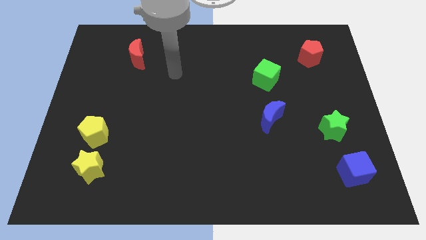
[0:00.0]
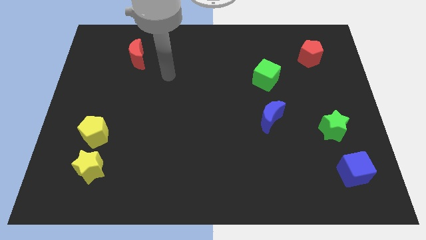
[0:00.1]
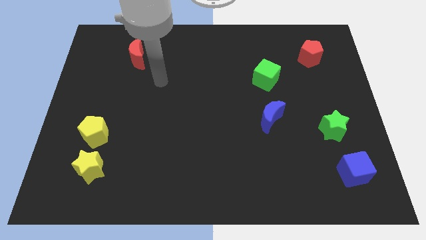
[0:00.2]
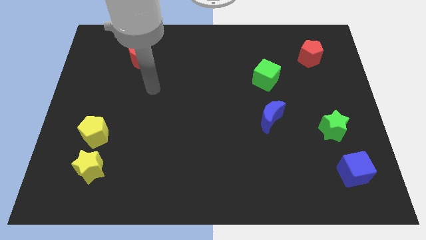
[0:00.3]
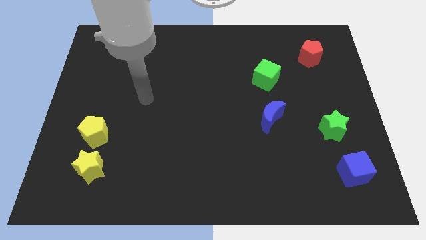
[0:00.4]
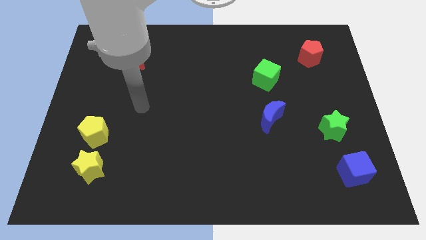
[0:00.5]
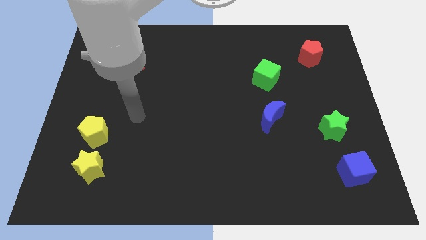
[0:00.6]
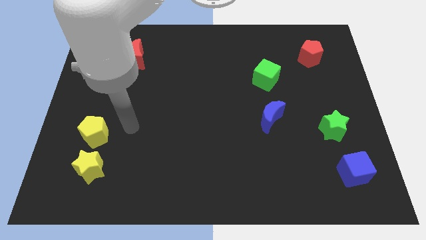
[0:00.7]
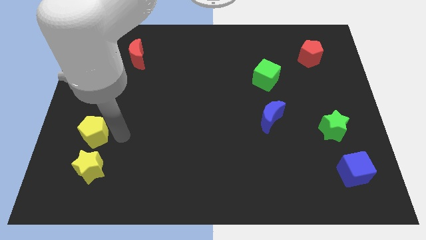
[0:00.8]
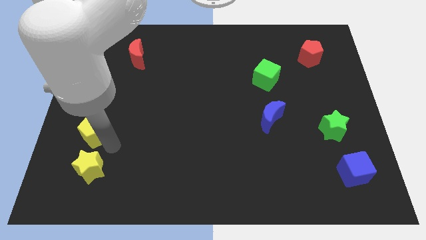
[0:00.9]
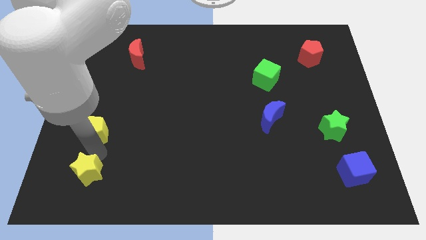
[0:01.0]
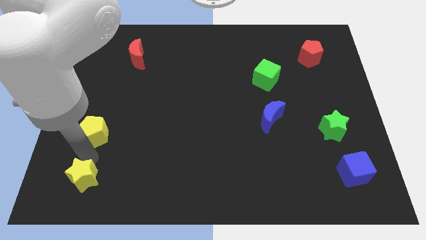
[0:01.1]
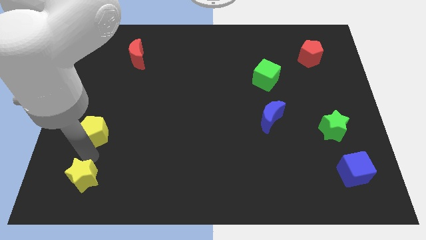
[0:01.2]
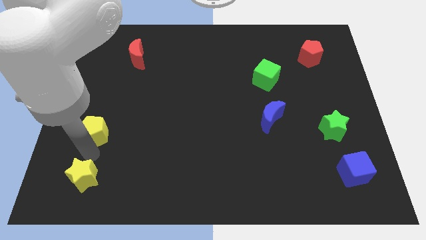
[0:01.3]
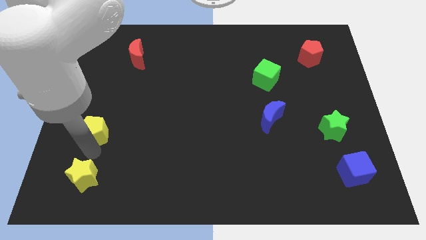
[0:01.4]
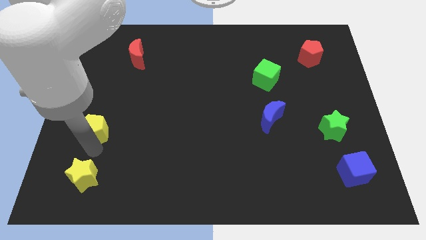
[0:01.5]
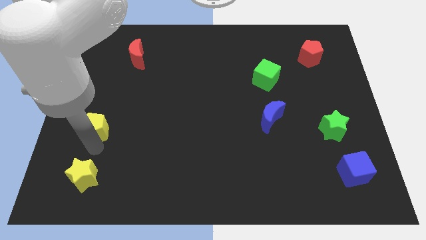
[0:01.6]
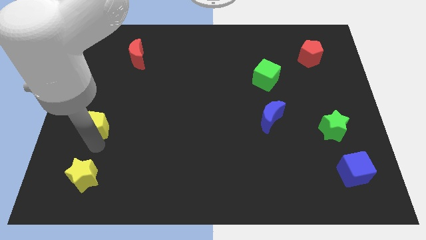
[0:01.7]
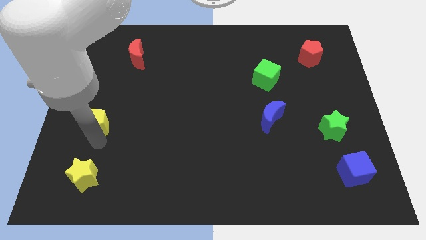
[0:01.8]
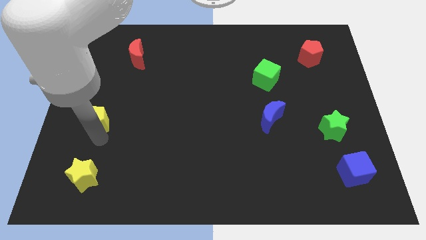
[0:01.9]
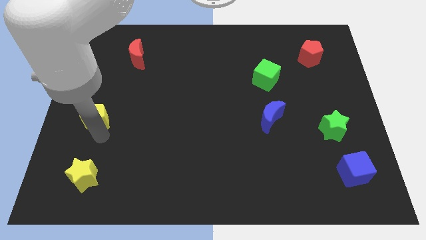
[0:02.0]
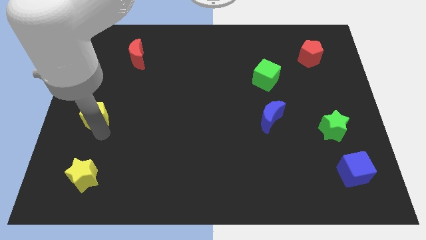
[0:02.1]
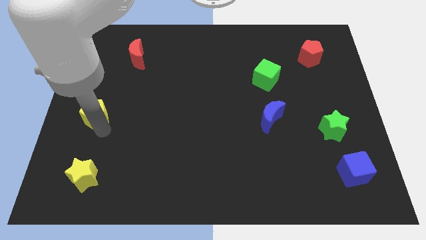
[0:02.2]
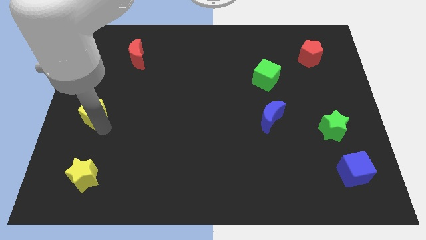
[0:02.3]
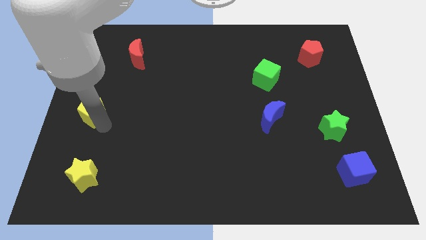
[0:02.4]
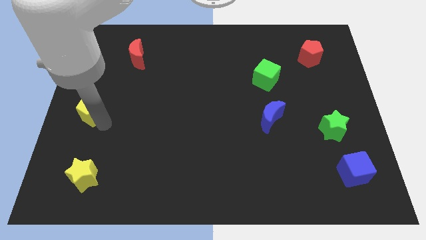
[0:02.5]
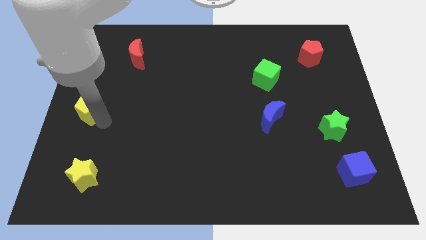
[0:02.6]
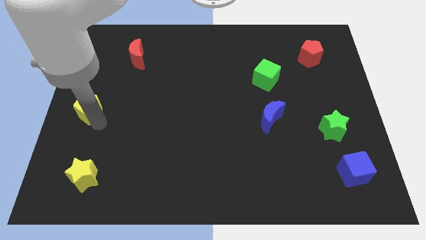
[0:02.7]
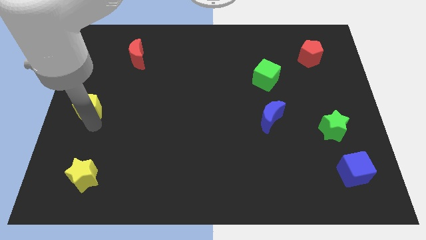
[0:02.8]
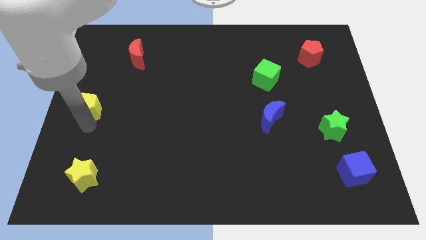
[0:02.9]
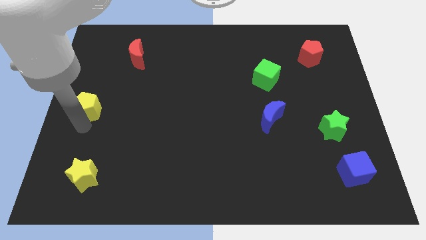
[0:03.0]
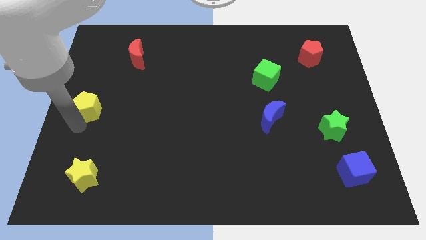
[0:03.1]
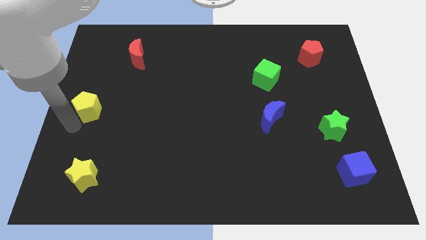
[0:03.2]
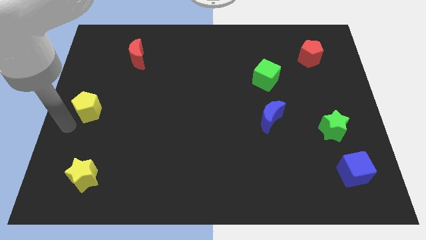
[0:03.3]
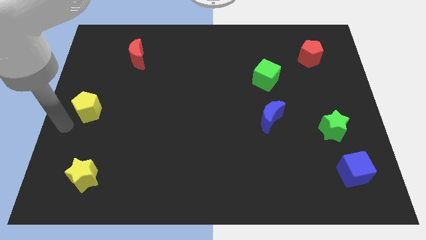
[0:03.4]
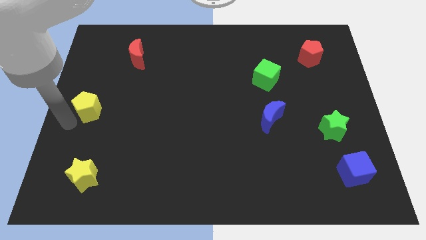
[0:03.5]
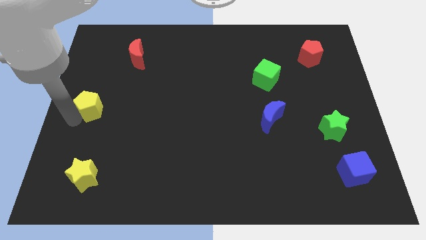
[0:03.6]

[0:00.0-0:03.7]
push the yellow pentagon somewhat upwards

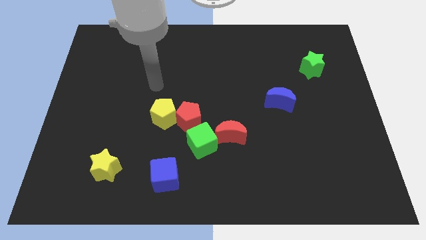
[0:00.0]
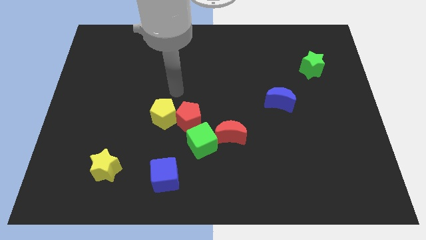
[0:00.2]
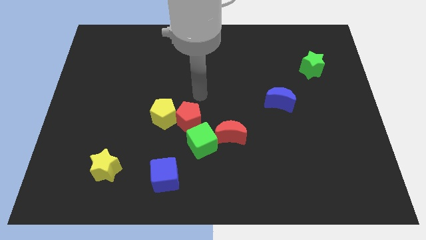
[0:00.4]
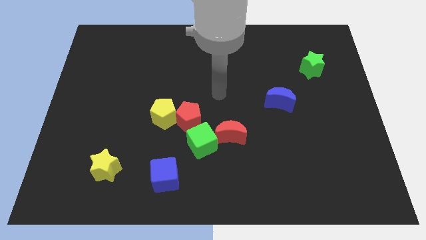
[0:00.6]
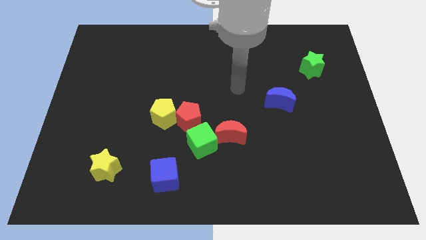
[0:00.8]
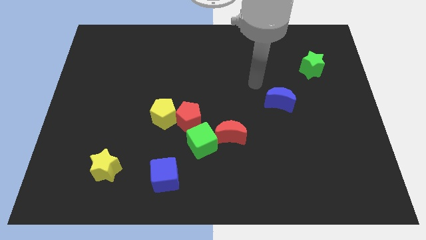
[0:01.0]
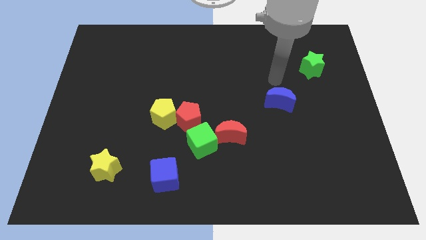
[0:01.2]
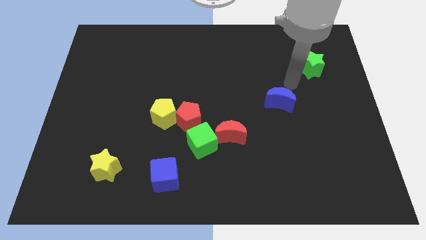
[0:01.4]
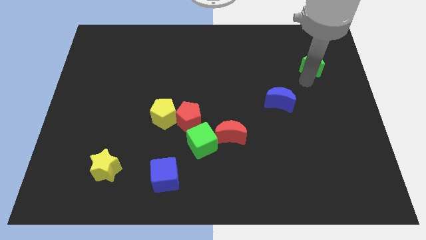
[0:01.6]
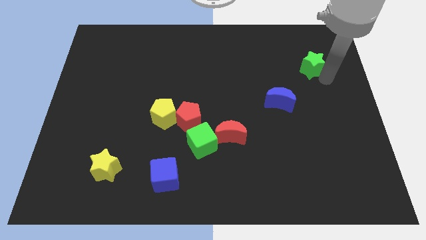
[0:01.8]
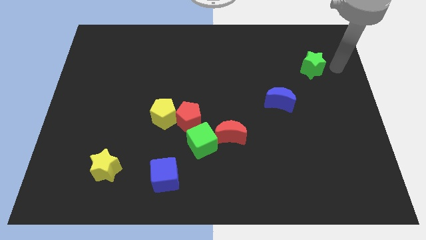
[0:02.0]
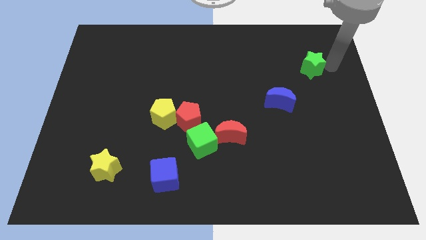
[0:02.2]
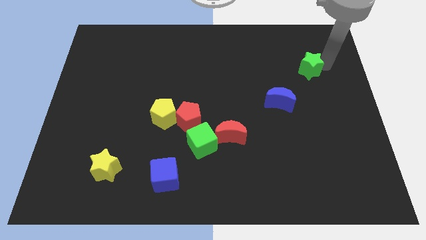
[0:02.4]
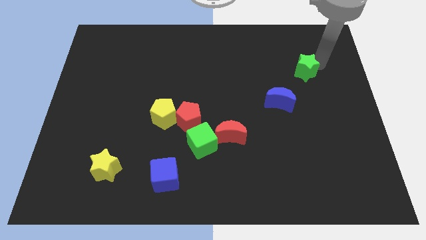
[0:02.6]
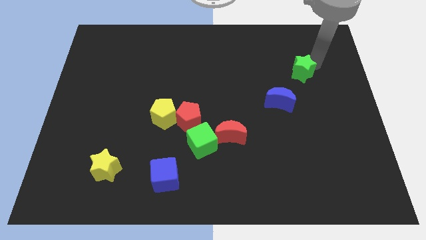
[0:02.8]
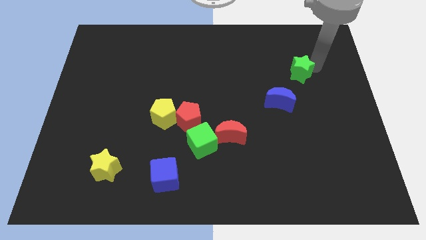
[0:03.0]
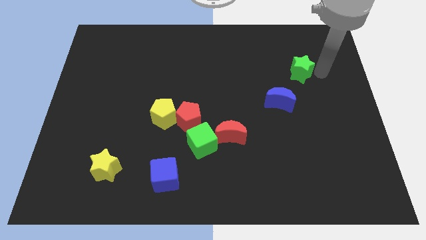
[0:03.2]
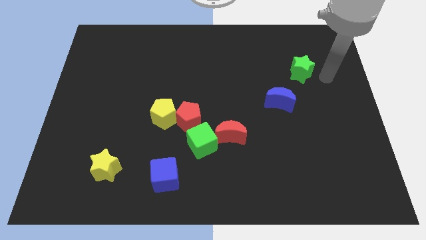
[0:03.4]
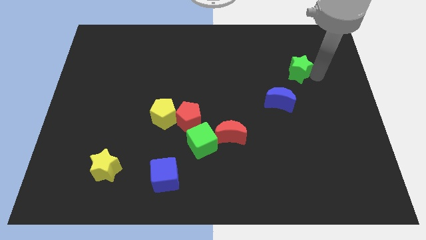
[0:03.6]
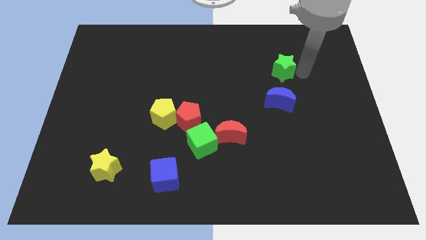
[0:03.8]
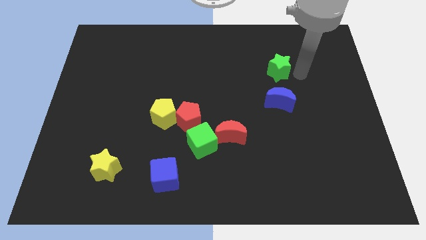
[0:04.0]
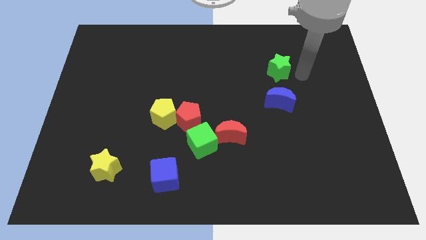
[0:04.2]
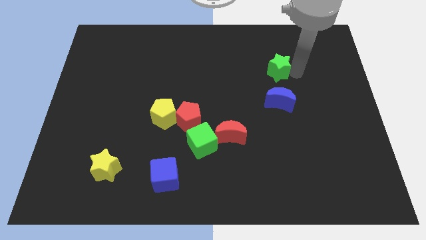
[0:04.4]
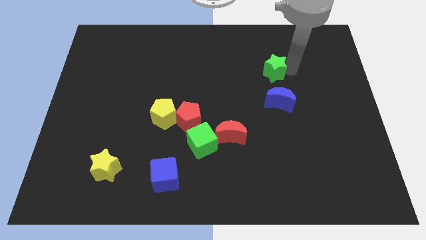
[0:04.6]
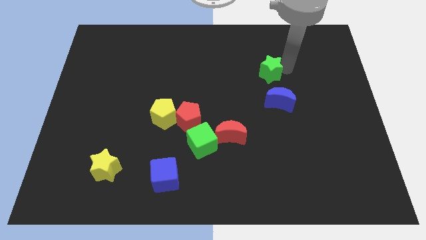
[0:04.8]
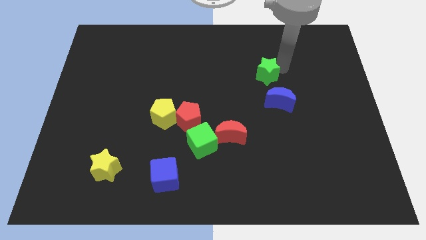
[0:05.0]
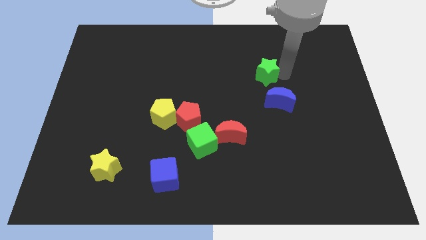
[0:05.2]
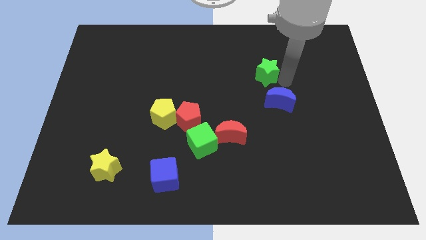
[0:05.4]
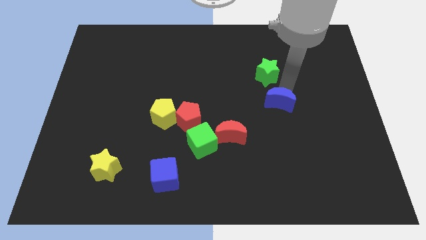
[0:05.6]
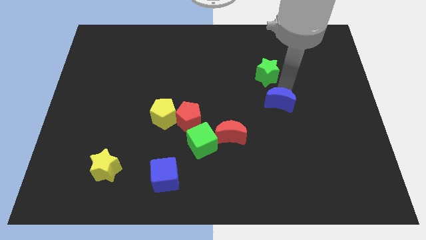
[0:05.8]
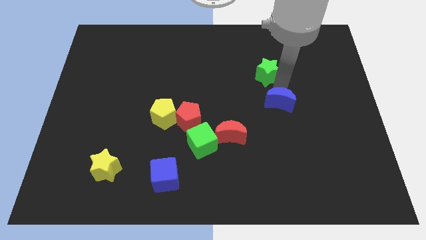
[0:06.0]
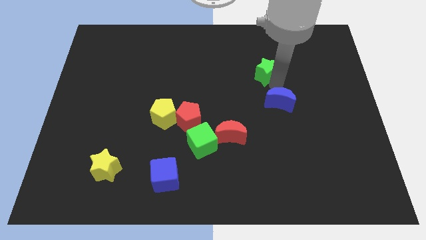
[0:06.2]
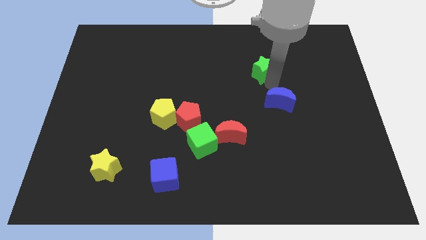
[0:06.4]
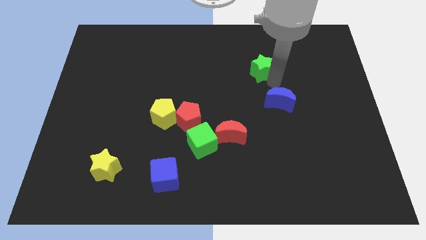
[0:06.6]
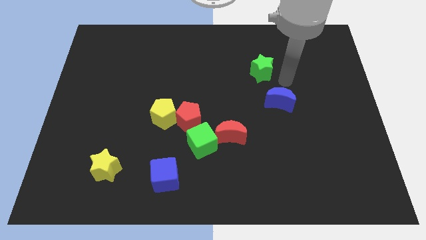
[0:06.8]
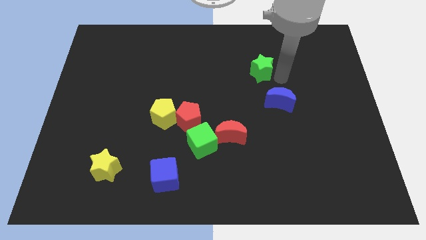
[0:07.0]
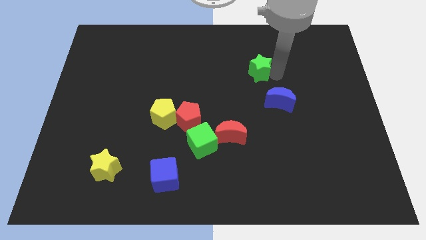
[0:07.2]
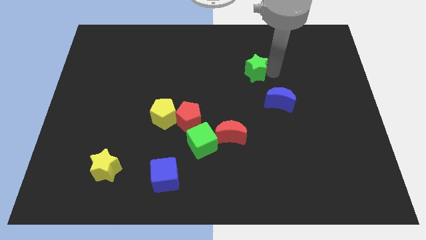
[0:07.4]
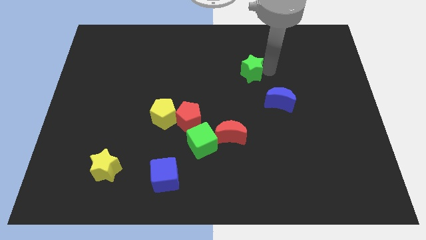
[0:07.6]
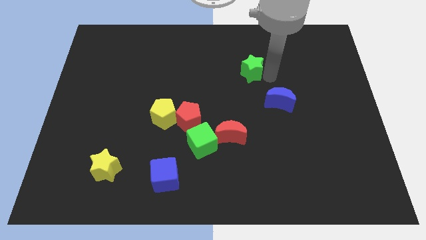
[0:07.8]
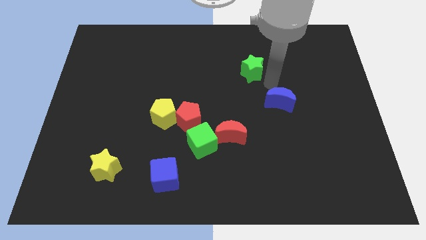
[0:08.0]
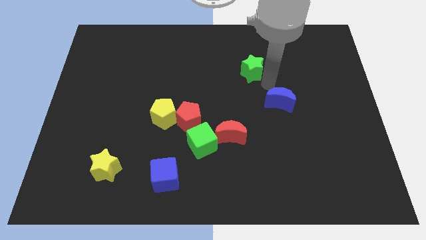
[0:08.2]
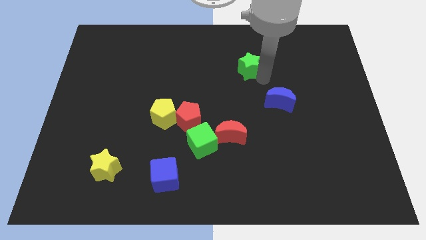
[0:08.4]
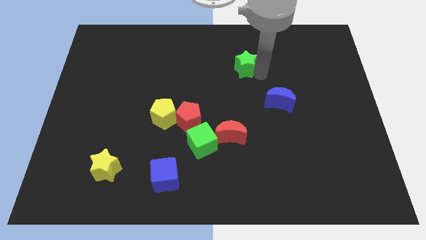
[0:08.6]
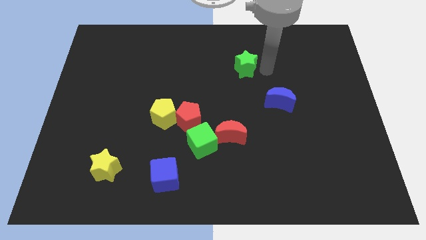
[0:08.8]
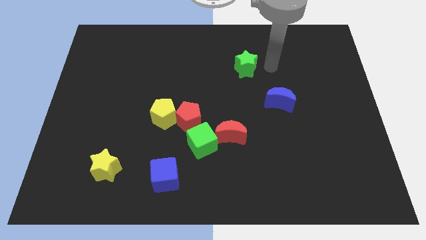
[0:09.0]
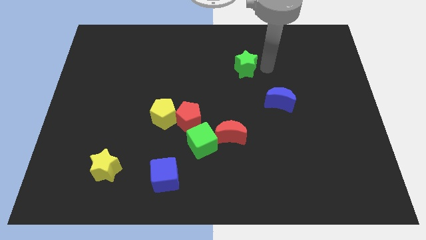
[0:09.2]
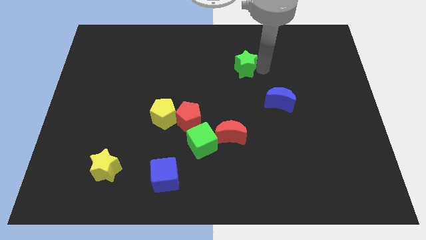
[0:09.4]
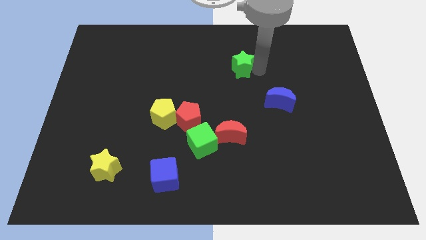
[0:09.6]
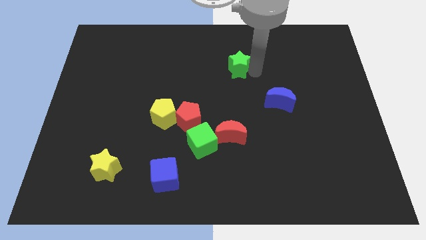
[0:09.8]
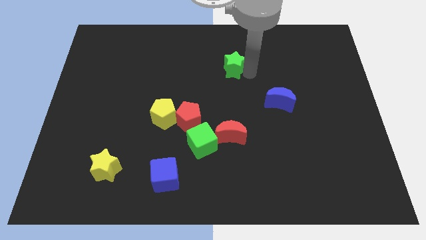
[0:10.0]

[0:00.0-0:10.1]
push the green star left
